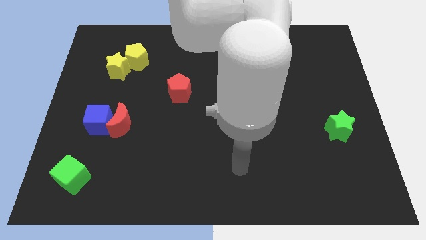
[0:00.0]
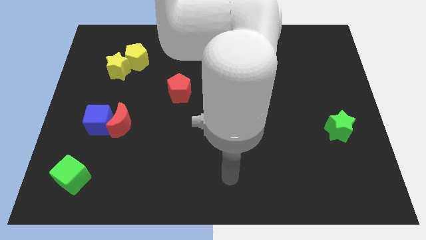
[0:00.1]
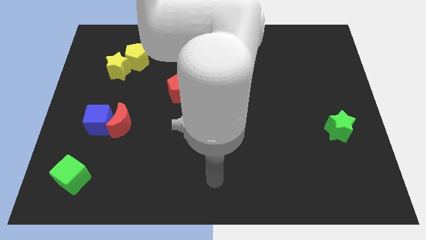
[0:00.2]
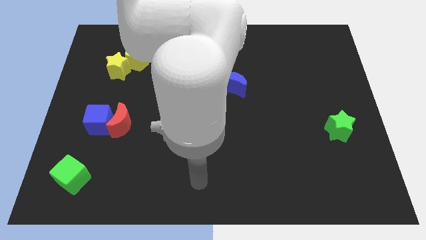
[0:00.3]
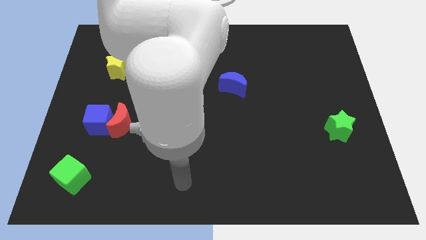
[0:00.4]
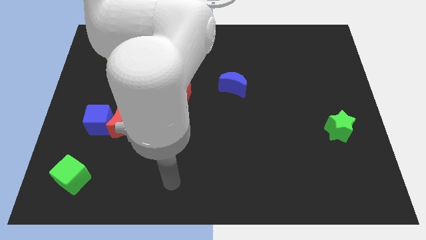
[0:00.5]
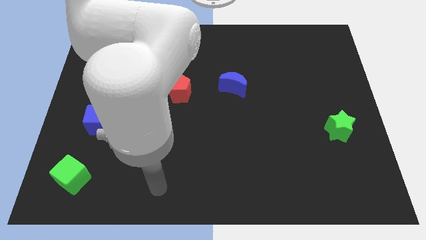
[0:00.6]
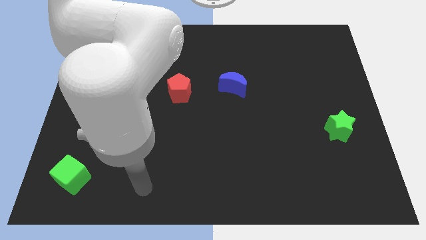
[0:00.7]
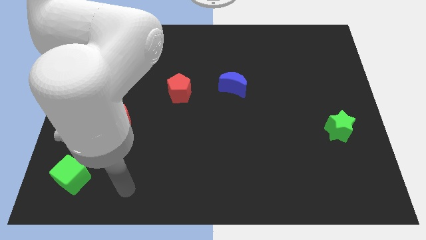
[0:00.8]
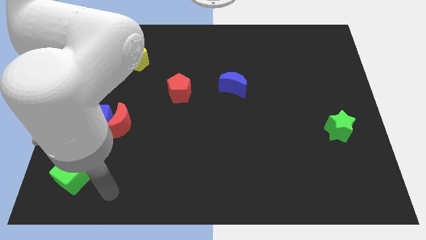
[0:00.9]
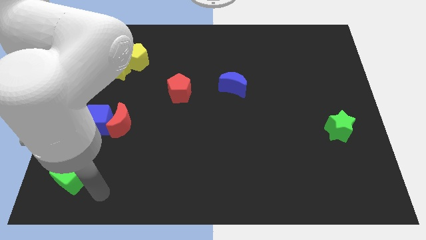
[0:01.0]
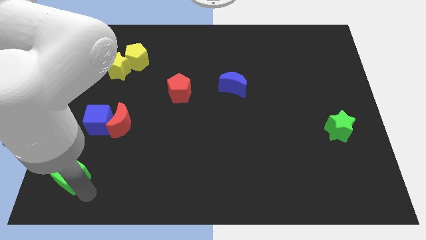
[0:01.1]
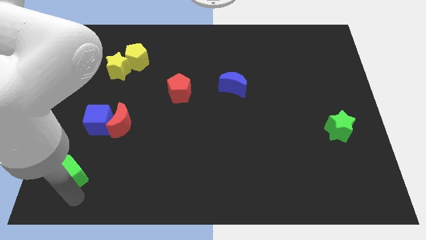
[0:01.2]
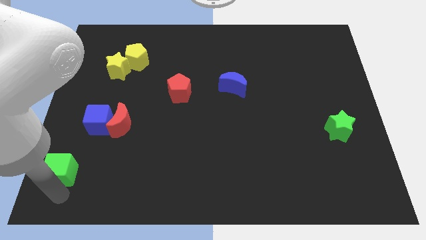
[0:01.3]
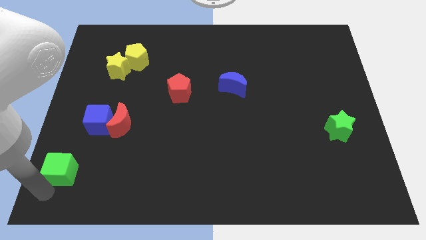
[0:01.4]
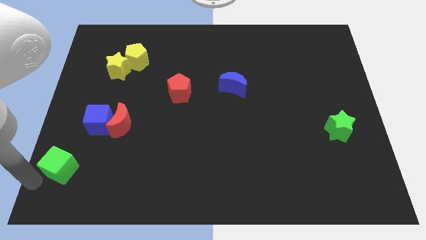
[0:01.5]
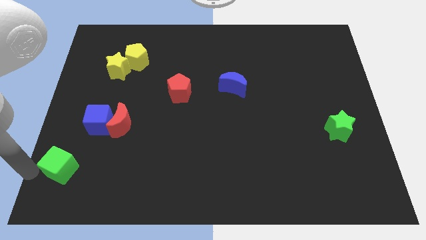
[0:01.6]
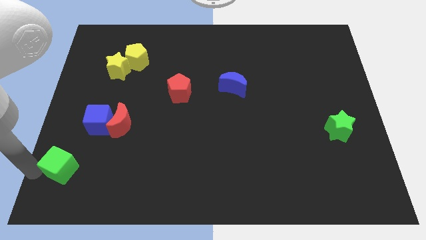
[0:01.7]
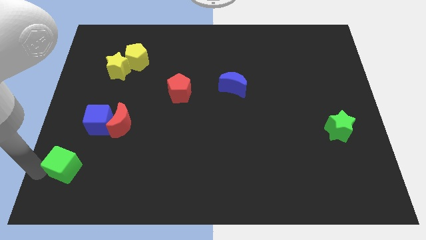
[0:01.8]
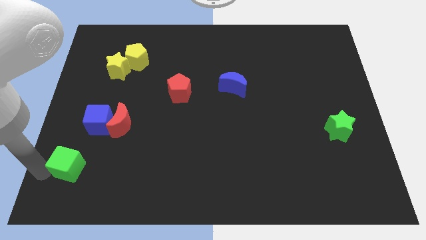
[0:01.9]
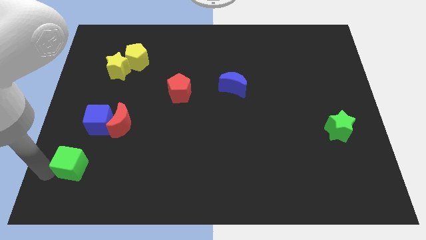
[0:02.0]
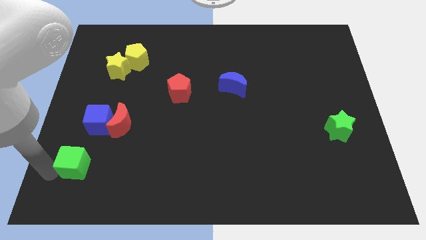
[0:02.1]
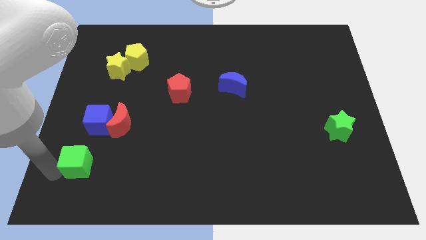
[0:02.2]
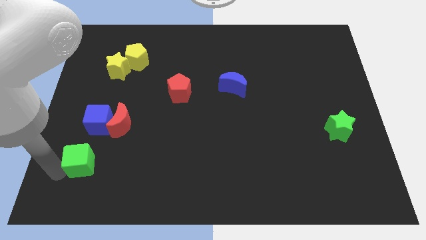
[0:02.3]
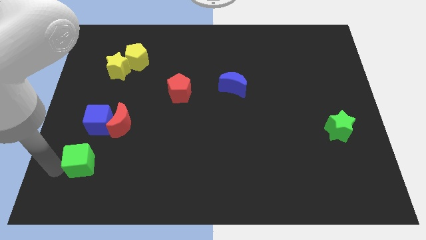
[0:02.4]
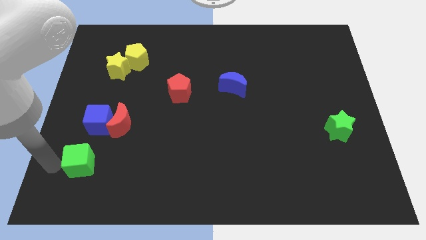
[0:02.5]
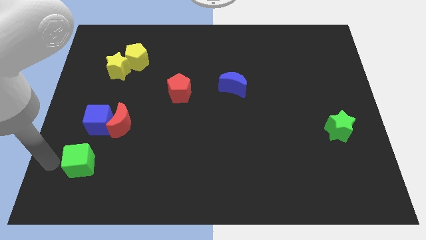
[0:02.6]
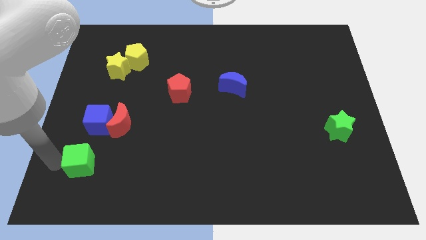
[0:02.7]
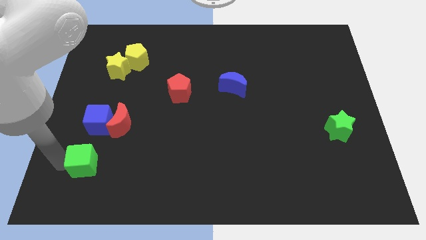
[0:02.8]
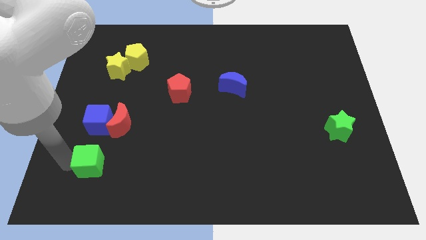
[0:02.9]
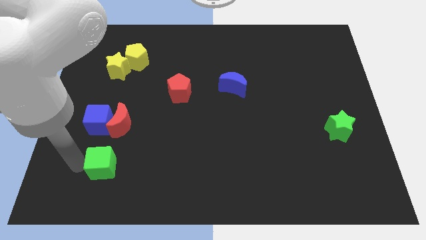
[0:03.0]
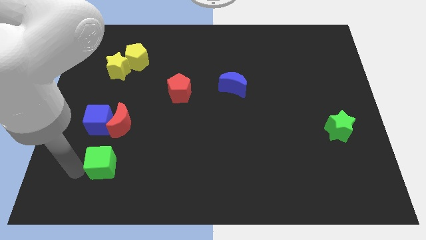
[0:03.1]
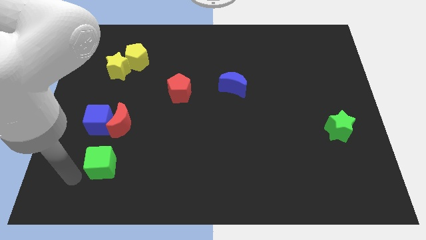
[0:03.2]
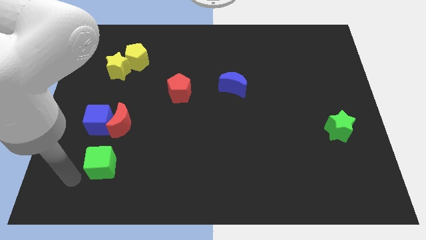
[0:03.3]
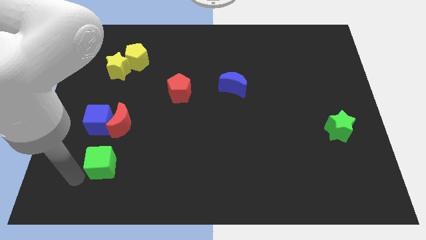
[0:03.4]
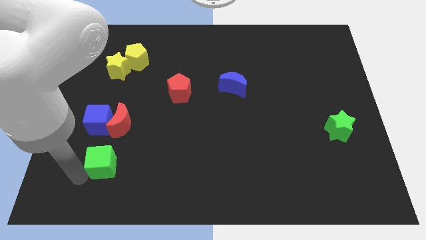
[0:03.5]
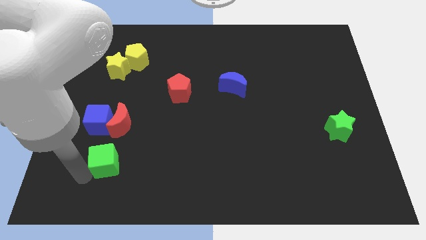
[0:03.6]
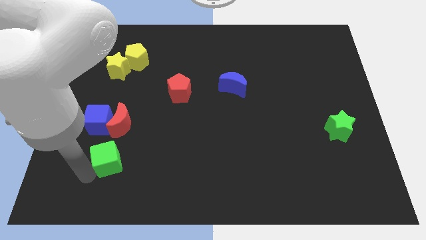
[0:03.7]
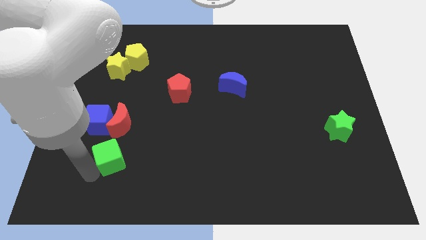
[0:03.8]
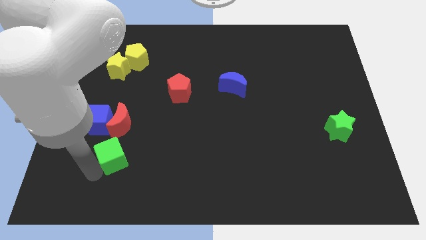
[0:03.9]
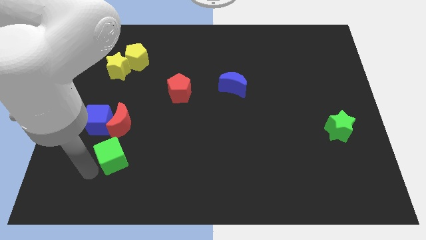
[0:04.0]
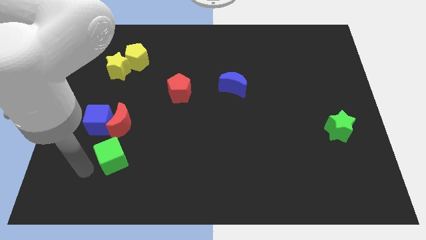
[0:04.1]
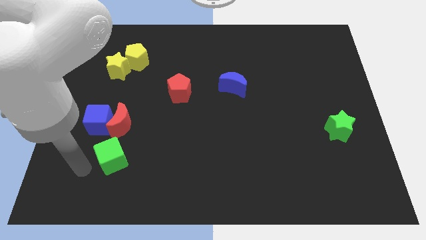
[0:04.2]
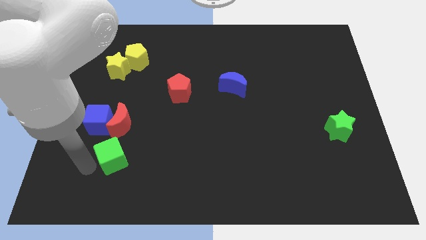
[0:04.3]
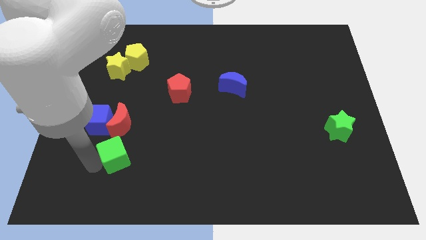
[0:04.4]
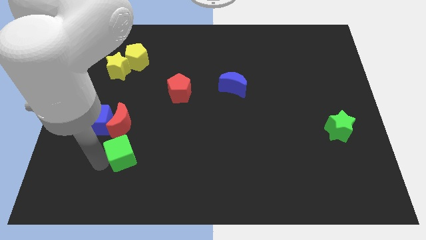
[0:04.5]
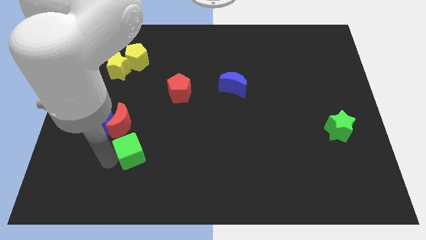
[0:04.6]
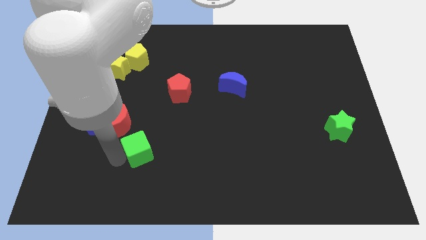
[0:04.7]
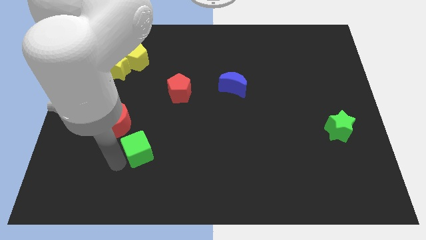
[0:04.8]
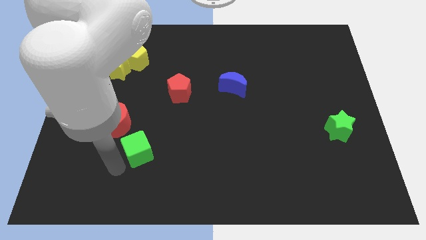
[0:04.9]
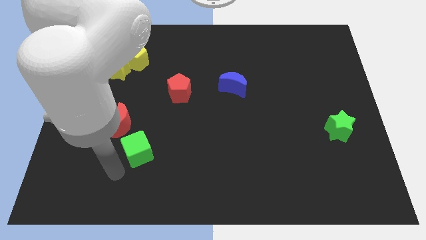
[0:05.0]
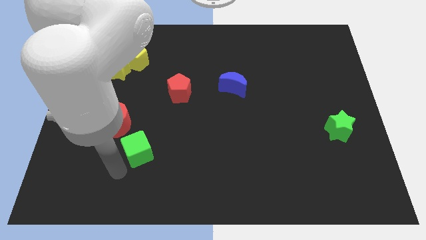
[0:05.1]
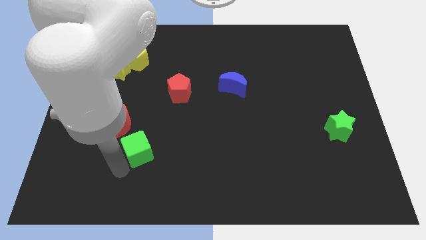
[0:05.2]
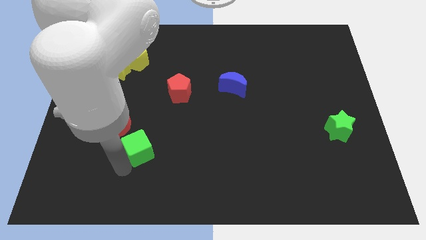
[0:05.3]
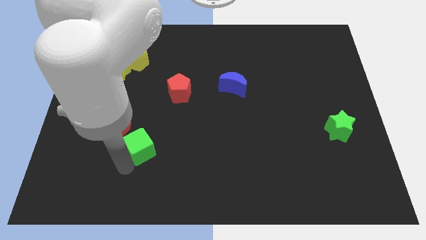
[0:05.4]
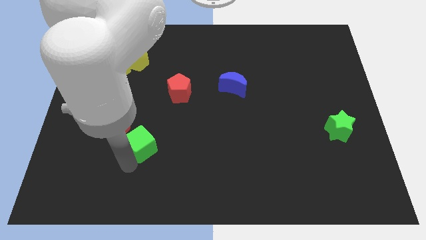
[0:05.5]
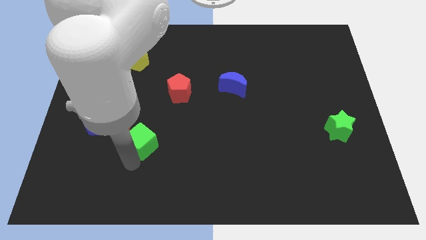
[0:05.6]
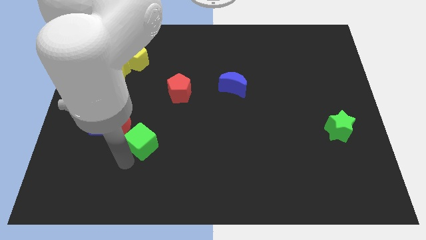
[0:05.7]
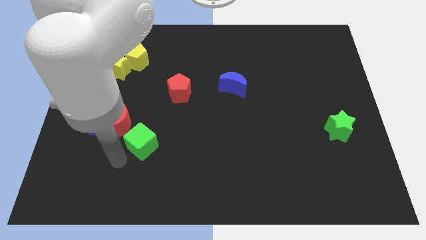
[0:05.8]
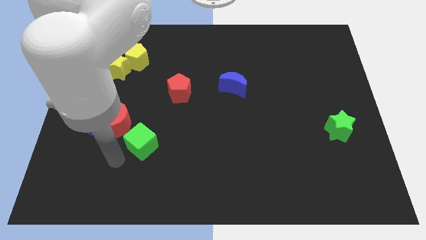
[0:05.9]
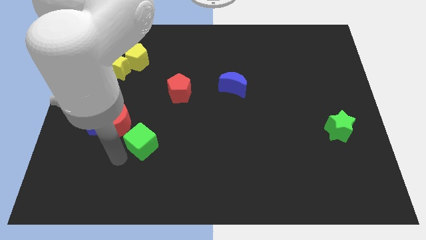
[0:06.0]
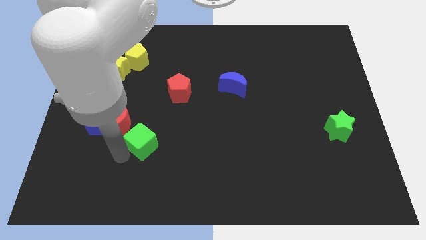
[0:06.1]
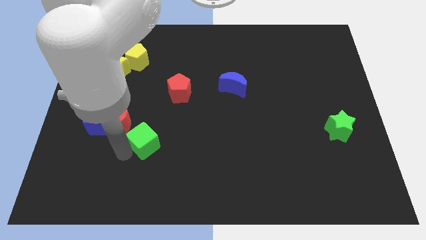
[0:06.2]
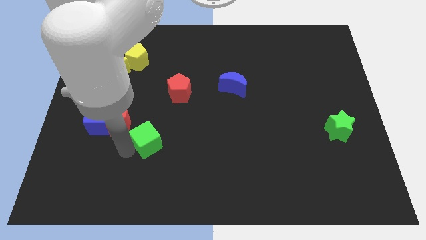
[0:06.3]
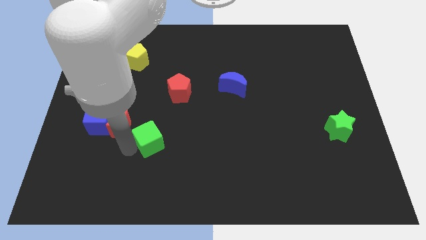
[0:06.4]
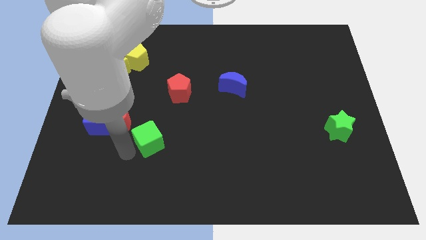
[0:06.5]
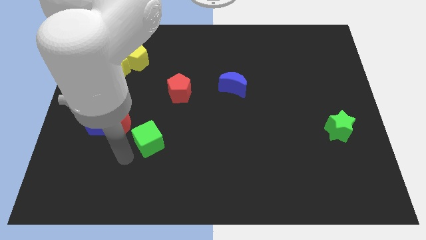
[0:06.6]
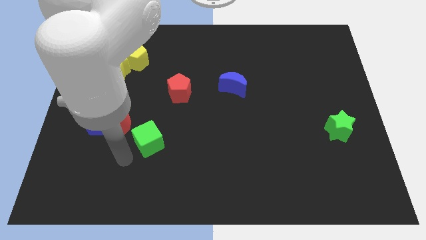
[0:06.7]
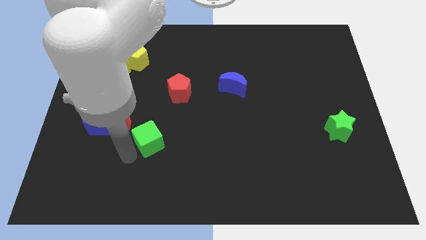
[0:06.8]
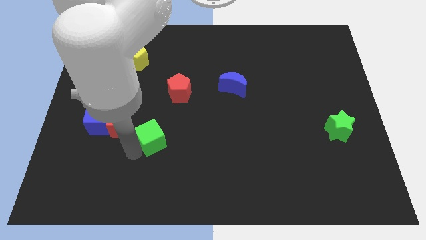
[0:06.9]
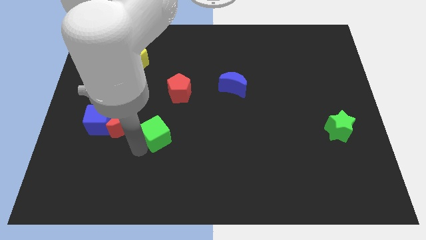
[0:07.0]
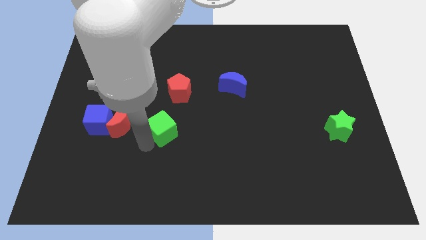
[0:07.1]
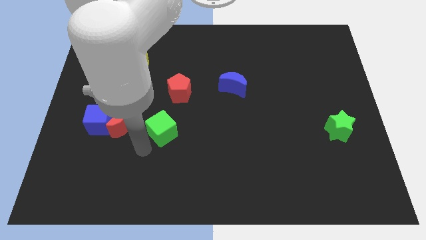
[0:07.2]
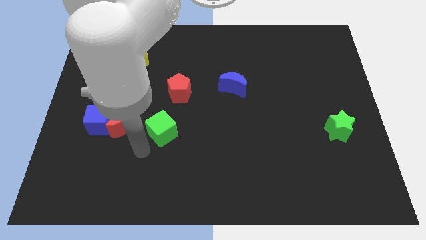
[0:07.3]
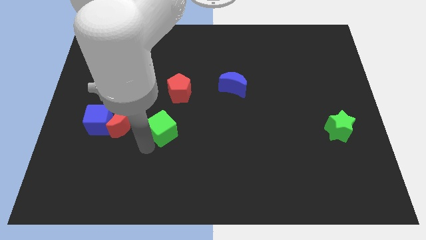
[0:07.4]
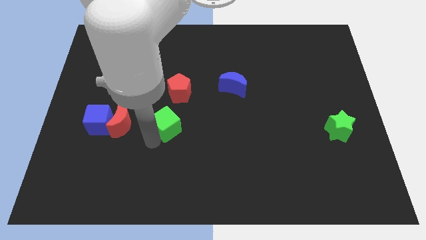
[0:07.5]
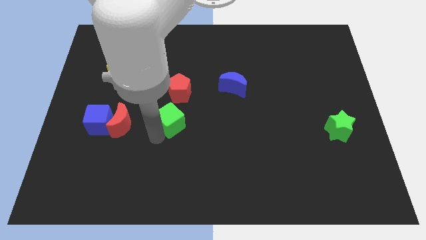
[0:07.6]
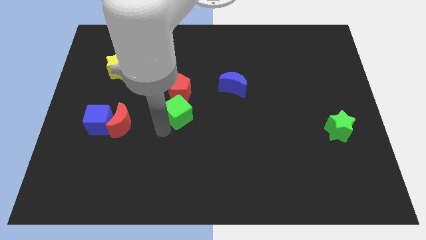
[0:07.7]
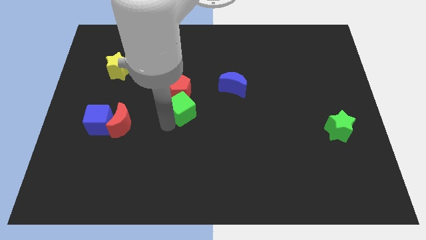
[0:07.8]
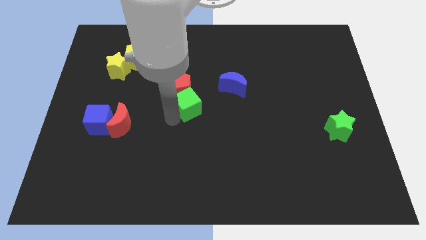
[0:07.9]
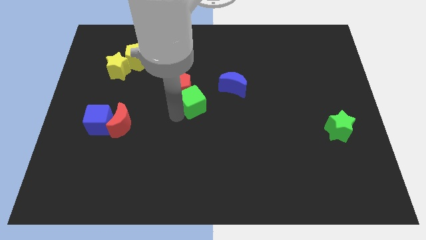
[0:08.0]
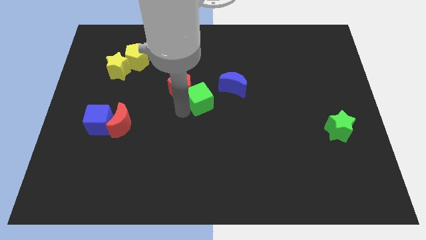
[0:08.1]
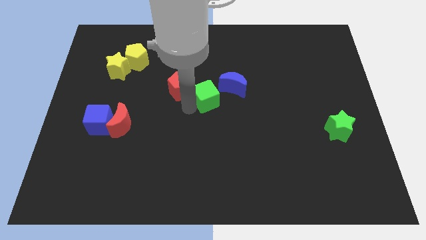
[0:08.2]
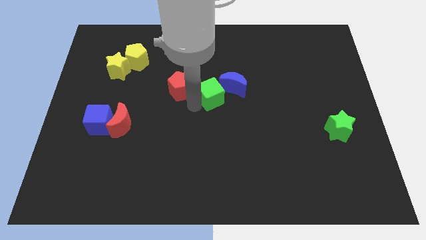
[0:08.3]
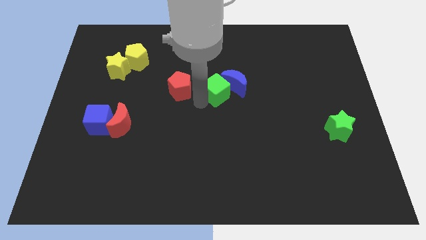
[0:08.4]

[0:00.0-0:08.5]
push the green cube to the blue moon
